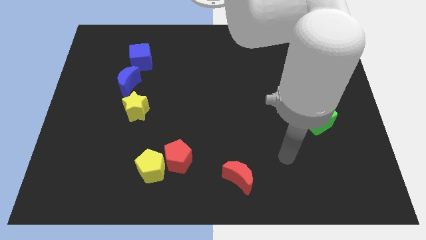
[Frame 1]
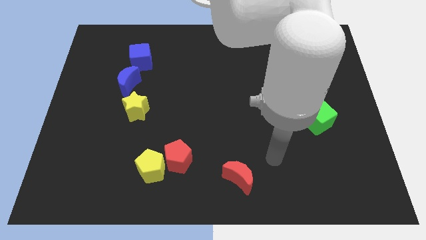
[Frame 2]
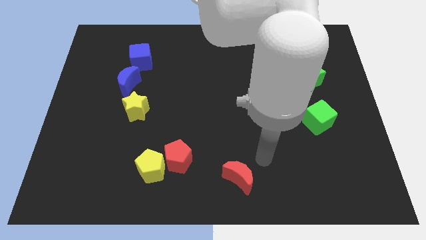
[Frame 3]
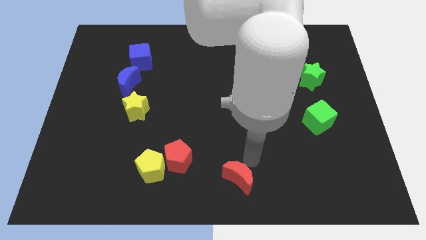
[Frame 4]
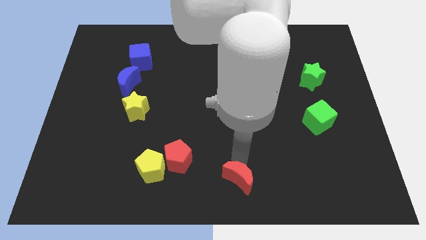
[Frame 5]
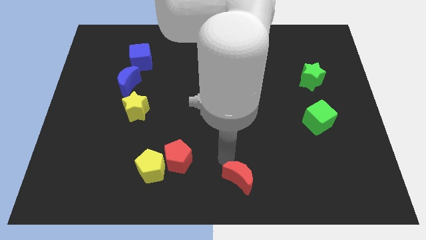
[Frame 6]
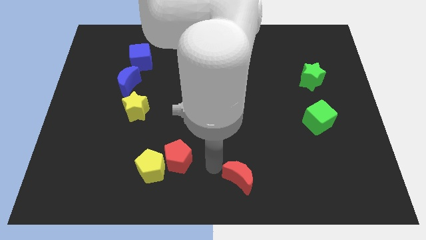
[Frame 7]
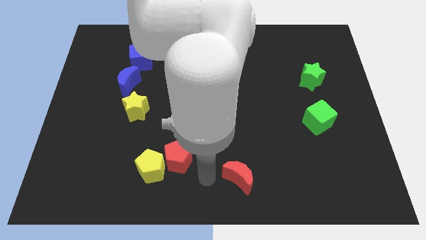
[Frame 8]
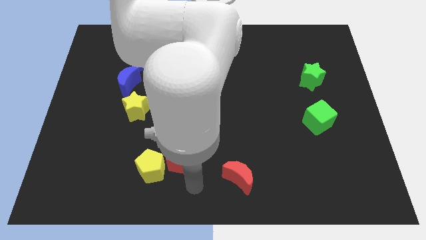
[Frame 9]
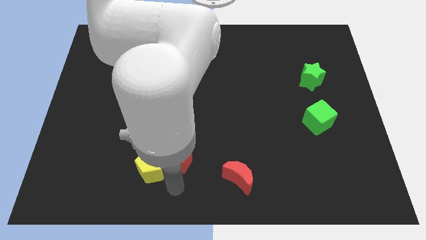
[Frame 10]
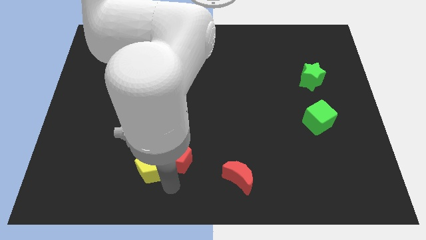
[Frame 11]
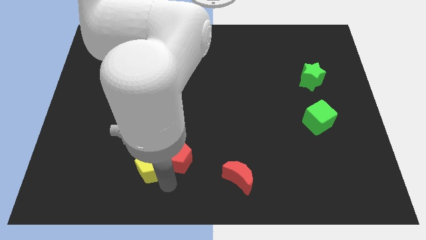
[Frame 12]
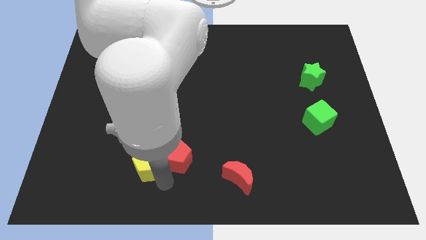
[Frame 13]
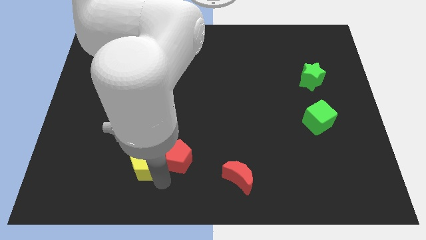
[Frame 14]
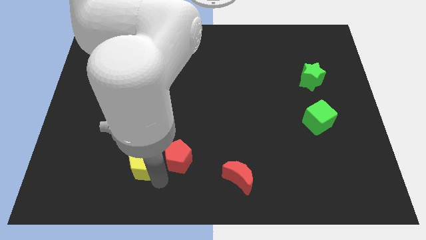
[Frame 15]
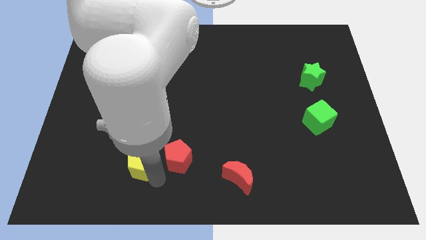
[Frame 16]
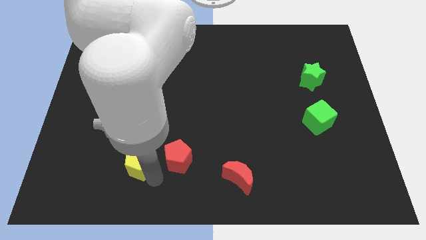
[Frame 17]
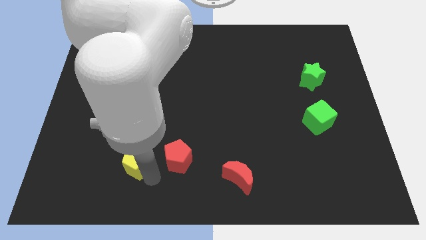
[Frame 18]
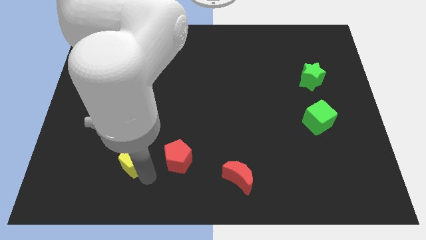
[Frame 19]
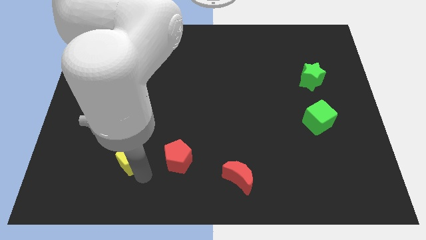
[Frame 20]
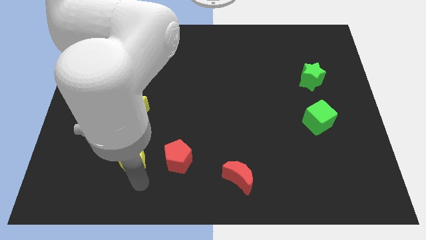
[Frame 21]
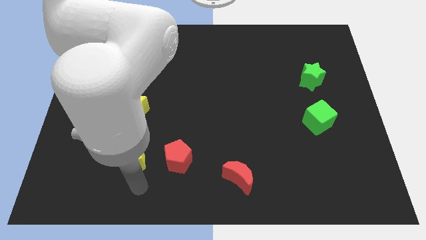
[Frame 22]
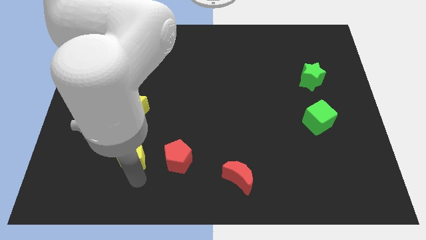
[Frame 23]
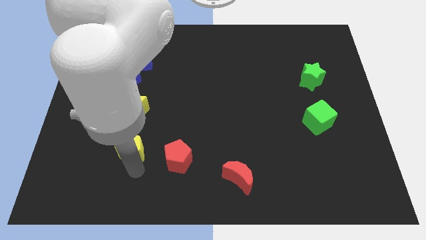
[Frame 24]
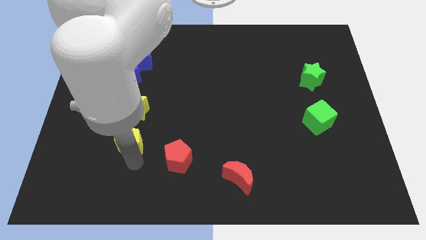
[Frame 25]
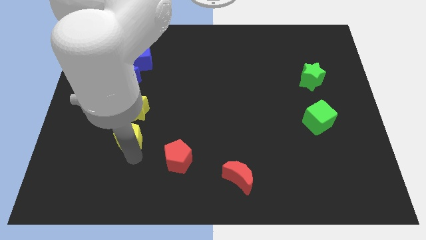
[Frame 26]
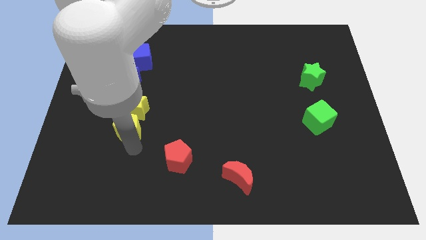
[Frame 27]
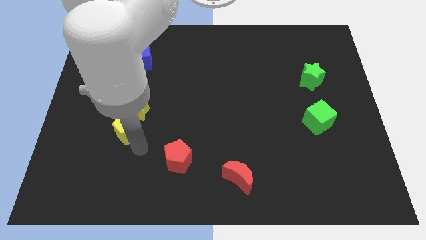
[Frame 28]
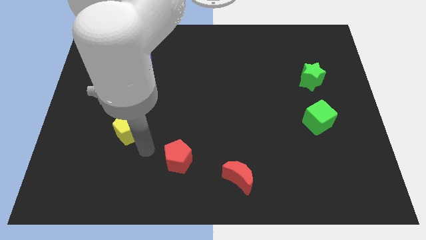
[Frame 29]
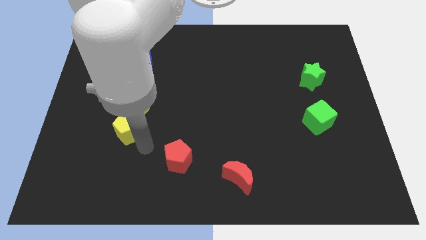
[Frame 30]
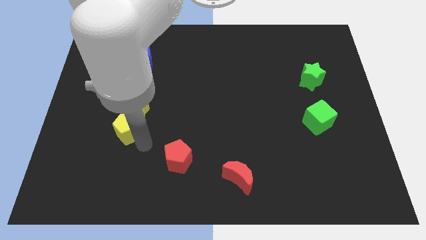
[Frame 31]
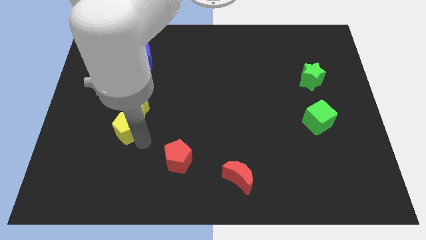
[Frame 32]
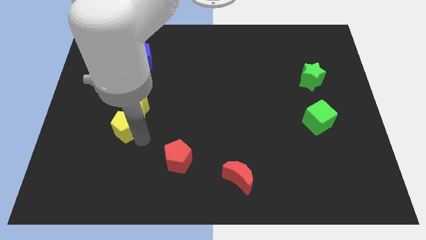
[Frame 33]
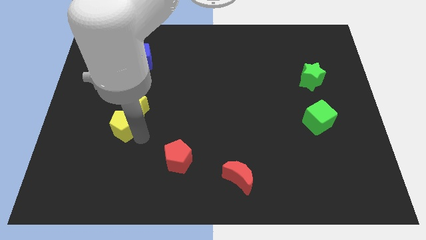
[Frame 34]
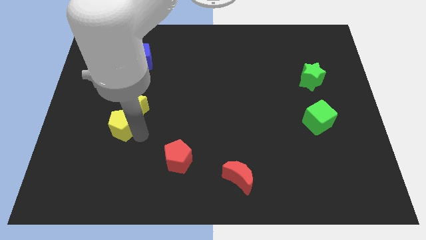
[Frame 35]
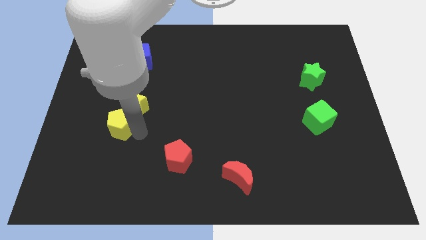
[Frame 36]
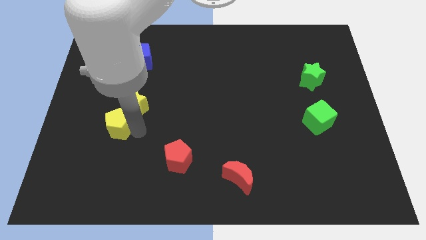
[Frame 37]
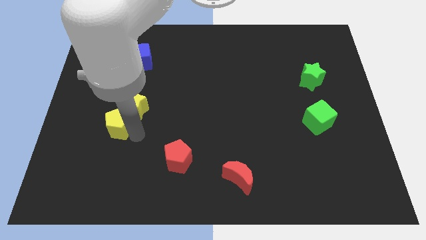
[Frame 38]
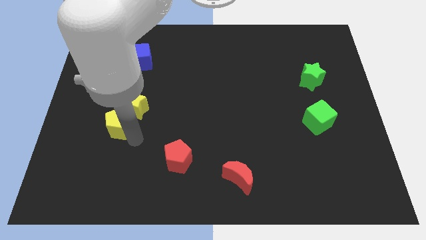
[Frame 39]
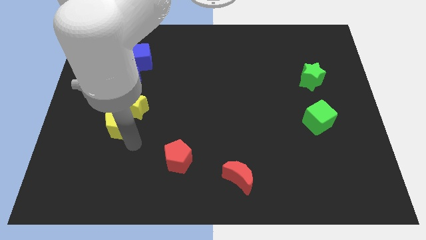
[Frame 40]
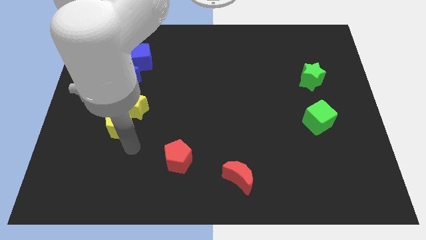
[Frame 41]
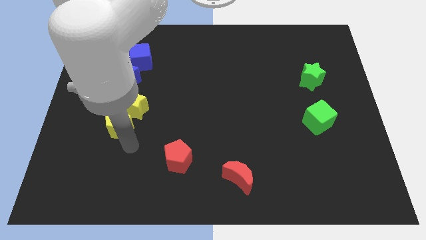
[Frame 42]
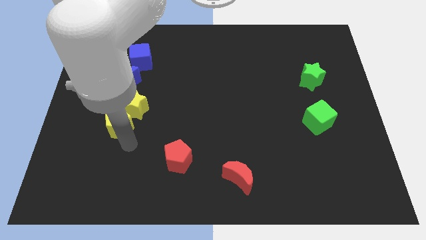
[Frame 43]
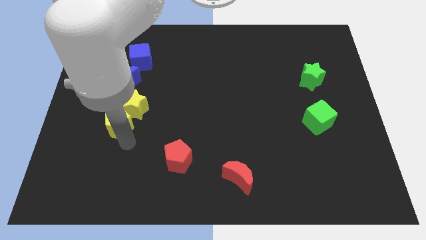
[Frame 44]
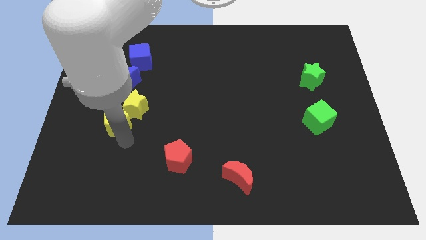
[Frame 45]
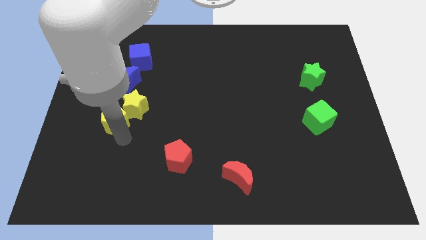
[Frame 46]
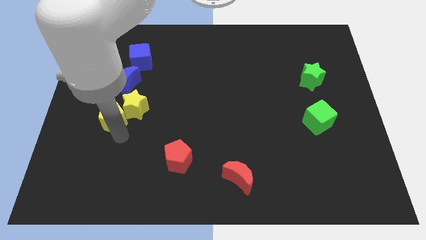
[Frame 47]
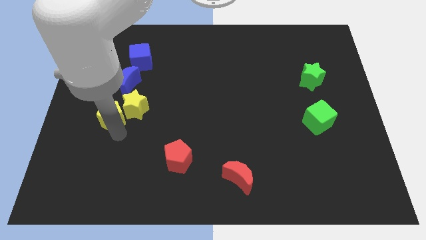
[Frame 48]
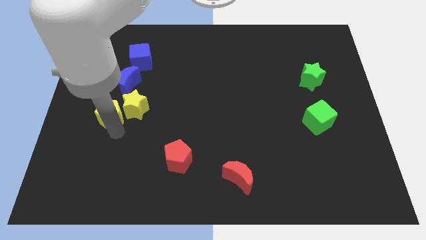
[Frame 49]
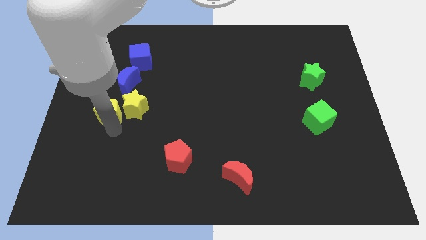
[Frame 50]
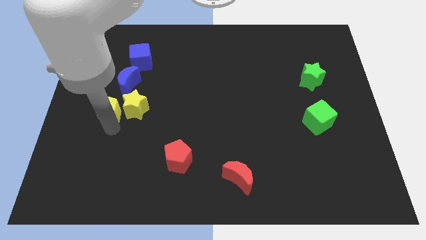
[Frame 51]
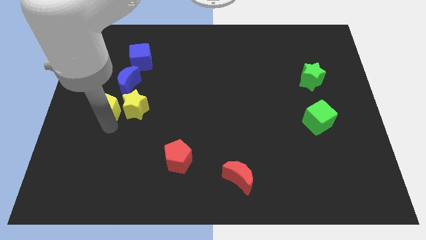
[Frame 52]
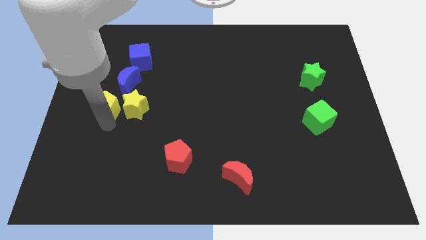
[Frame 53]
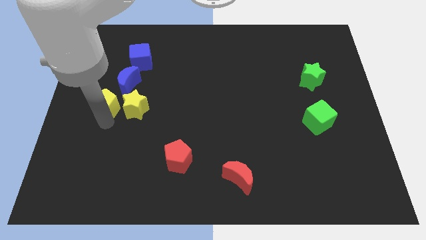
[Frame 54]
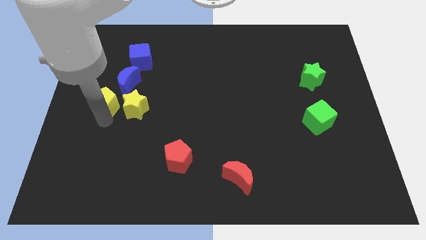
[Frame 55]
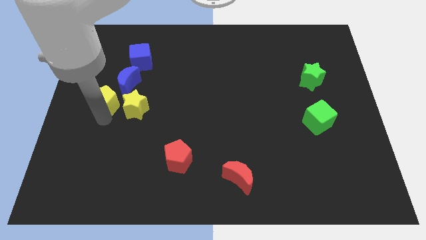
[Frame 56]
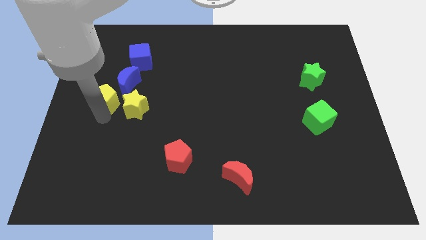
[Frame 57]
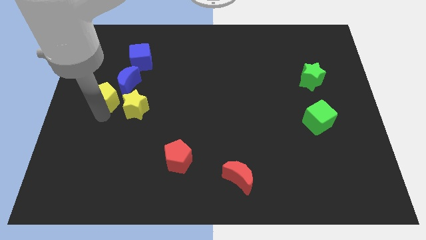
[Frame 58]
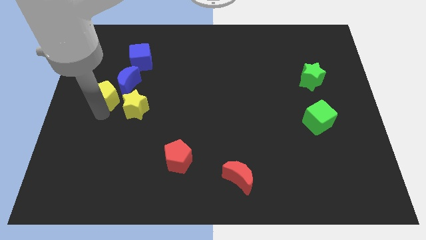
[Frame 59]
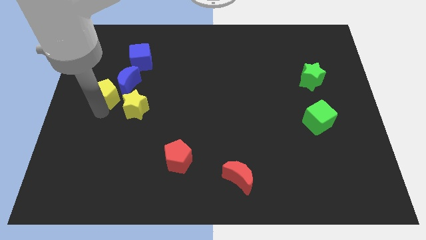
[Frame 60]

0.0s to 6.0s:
slide the yellow pentagon close to the blue moon

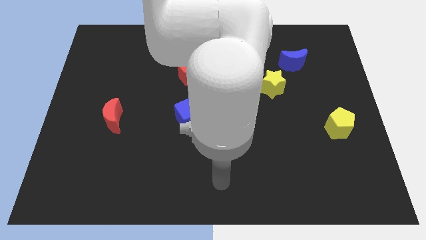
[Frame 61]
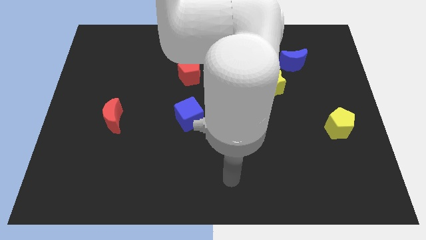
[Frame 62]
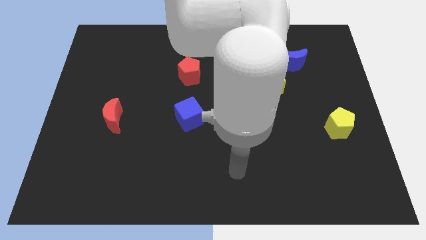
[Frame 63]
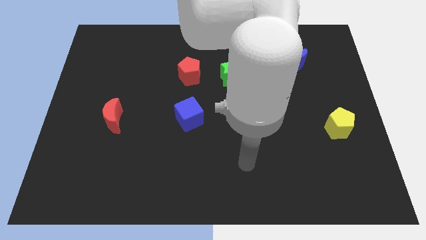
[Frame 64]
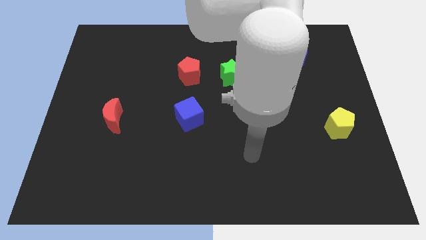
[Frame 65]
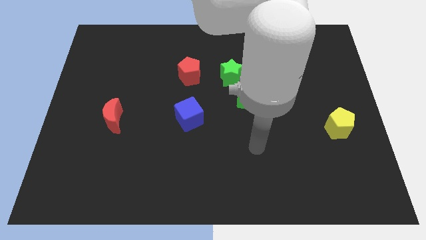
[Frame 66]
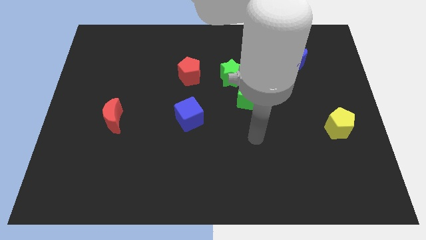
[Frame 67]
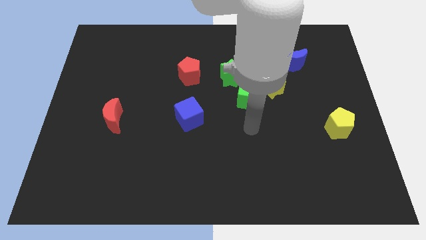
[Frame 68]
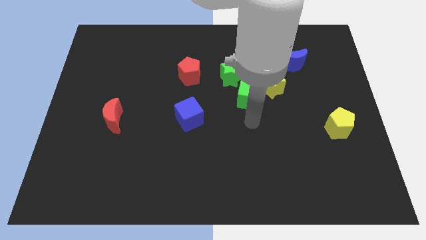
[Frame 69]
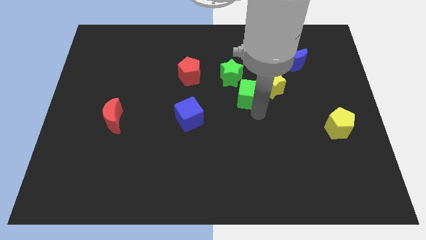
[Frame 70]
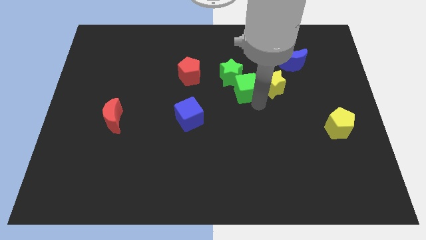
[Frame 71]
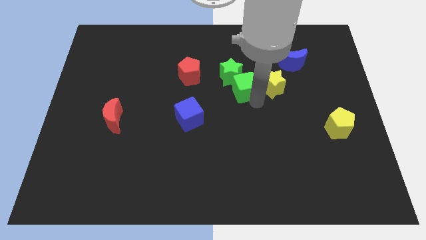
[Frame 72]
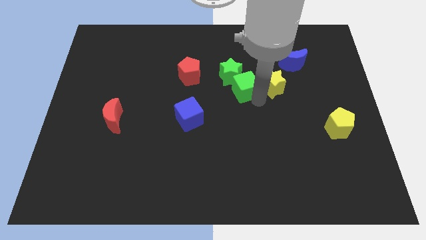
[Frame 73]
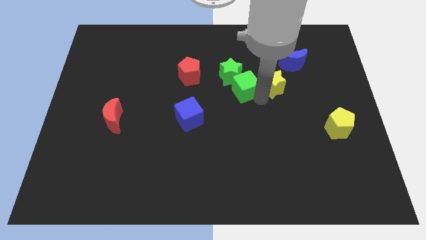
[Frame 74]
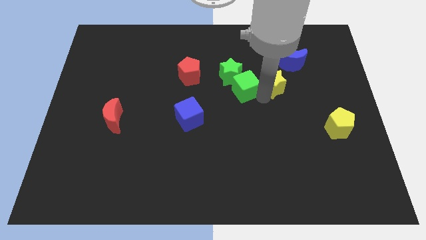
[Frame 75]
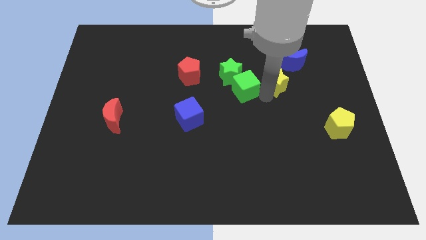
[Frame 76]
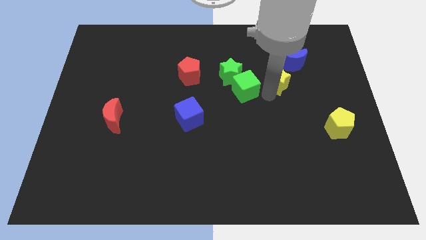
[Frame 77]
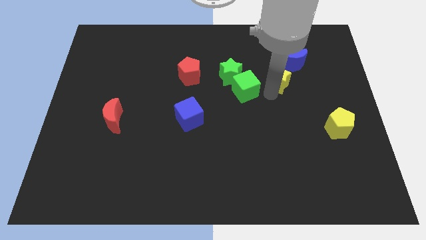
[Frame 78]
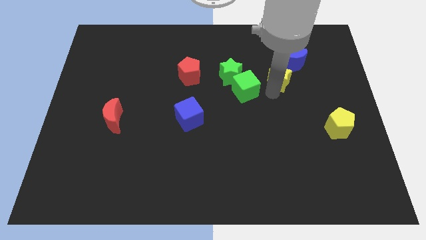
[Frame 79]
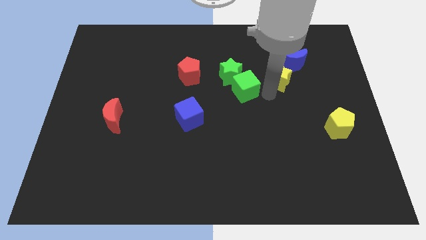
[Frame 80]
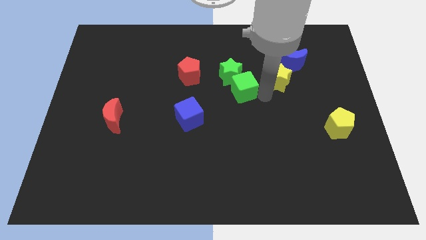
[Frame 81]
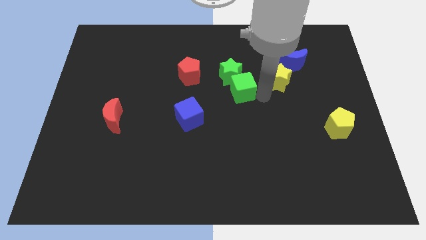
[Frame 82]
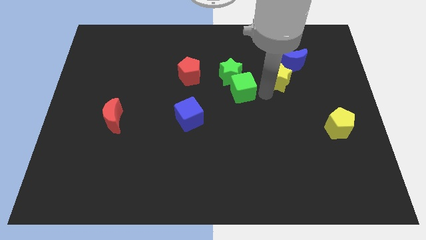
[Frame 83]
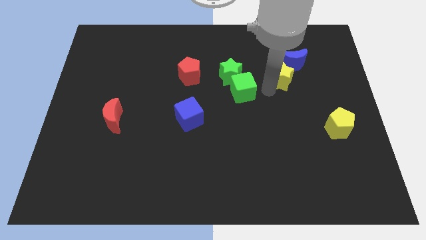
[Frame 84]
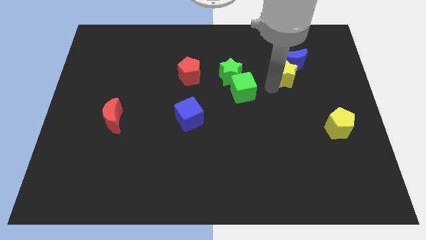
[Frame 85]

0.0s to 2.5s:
push the yellow star towards the blue moon
